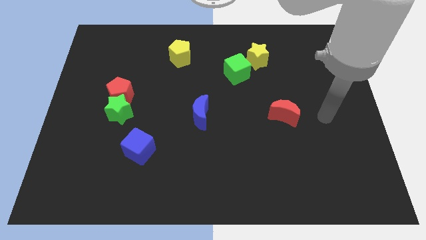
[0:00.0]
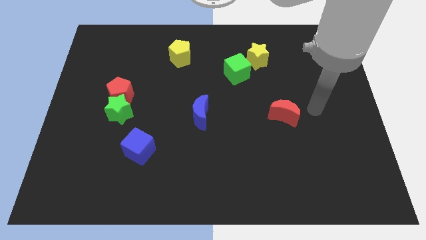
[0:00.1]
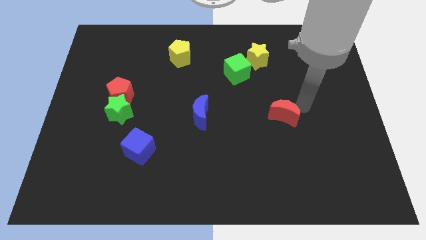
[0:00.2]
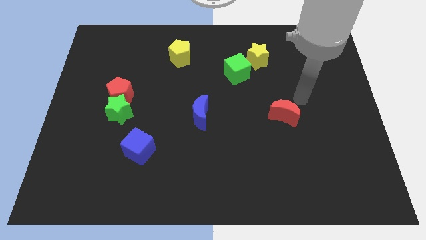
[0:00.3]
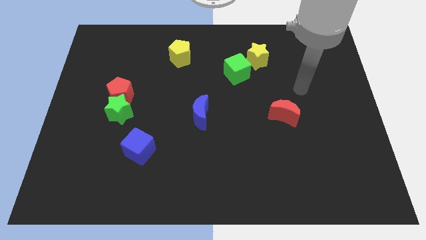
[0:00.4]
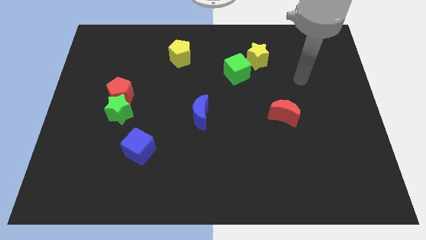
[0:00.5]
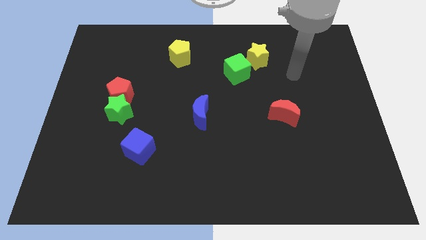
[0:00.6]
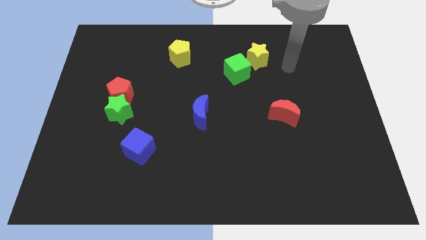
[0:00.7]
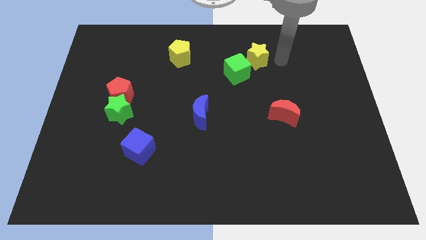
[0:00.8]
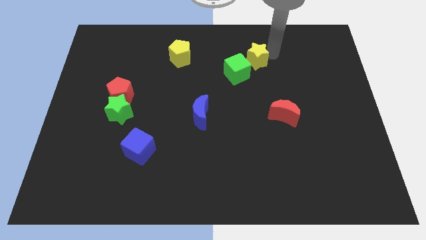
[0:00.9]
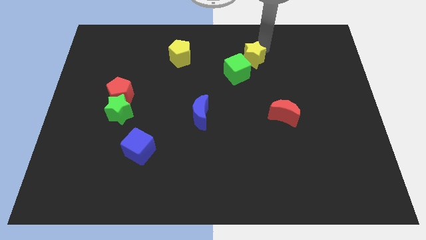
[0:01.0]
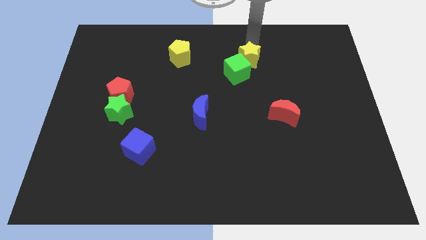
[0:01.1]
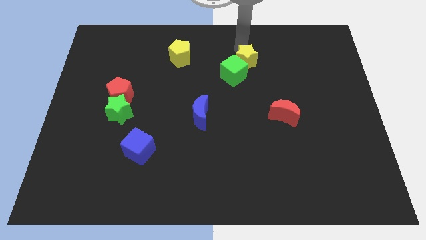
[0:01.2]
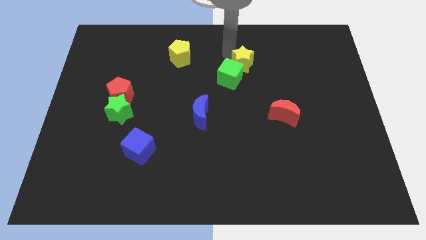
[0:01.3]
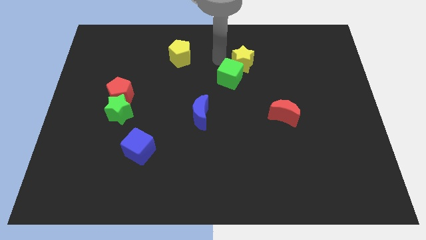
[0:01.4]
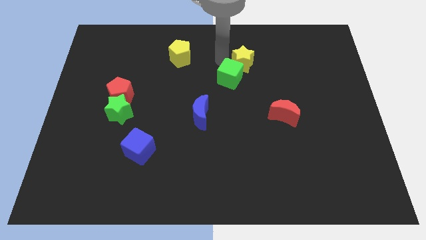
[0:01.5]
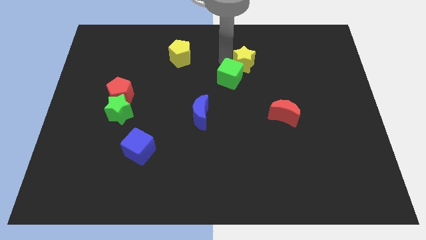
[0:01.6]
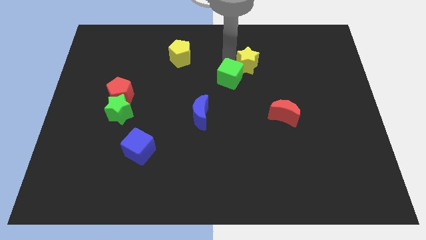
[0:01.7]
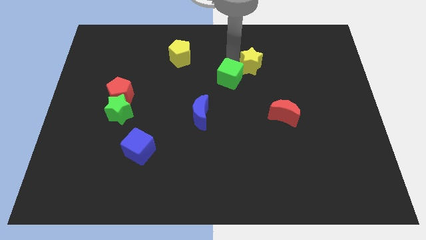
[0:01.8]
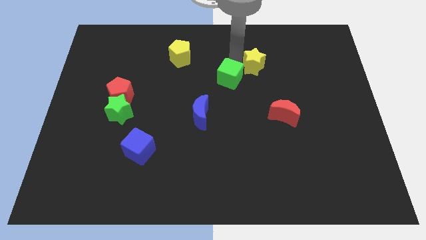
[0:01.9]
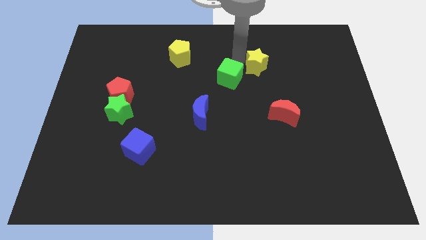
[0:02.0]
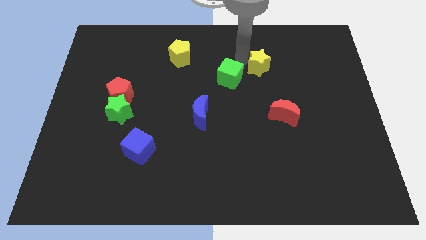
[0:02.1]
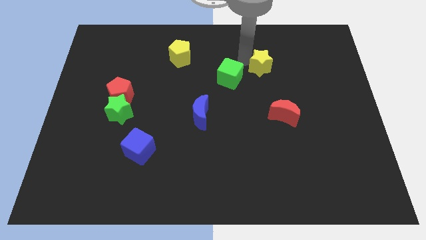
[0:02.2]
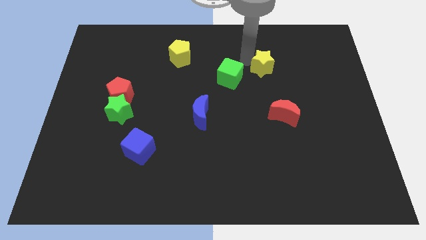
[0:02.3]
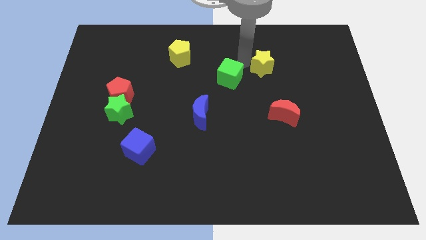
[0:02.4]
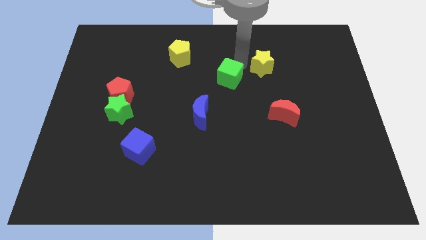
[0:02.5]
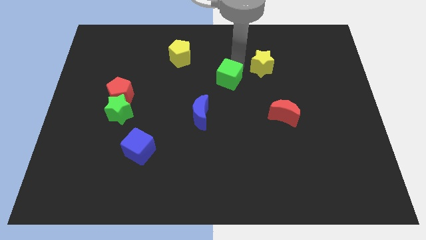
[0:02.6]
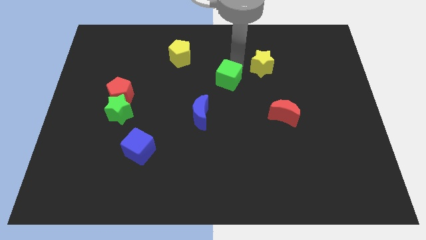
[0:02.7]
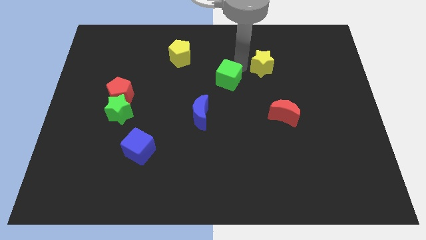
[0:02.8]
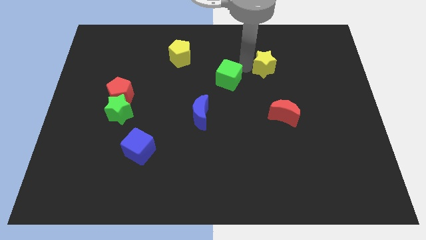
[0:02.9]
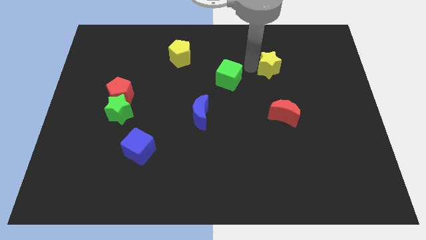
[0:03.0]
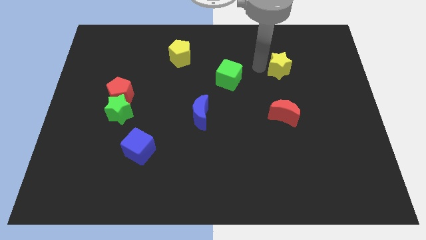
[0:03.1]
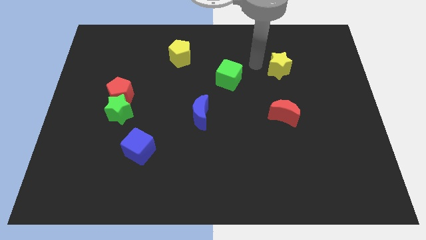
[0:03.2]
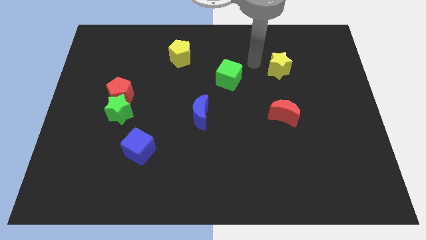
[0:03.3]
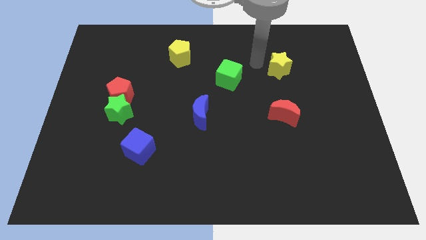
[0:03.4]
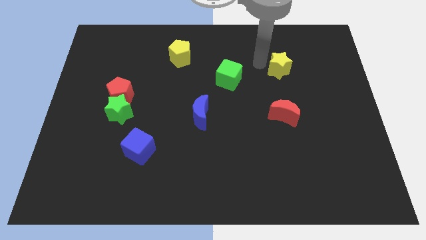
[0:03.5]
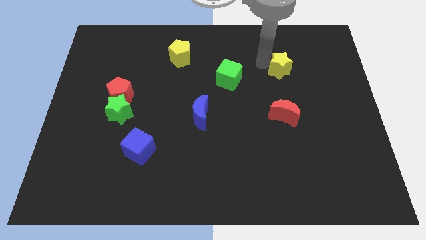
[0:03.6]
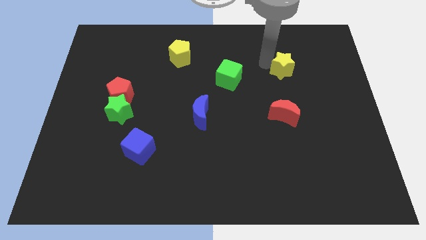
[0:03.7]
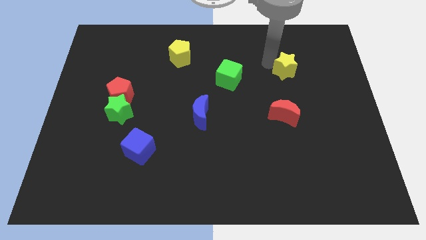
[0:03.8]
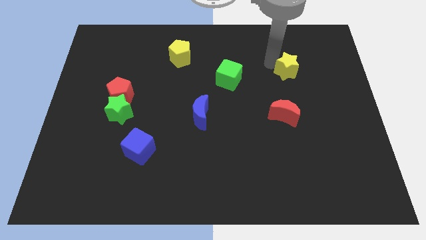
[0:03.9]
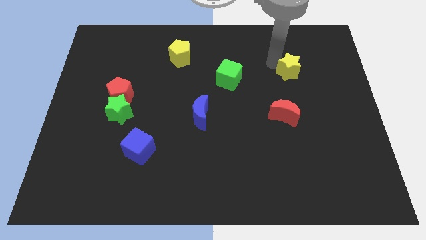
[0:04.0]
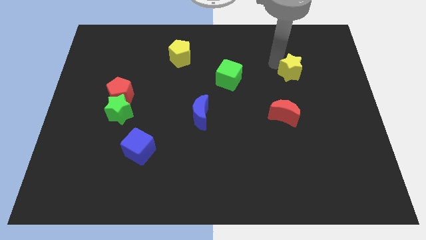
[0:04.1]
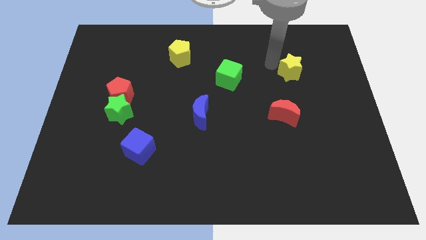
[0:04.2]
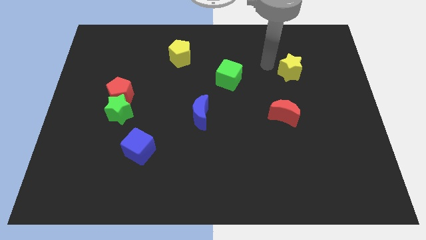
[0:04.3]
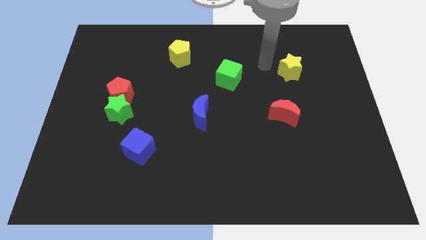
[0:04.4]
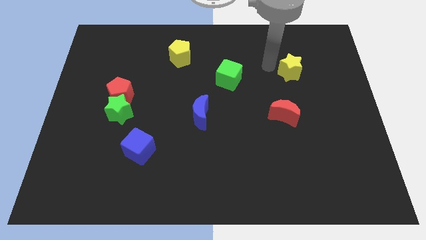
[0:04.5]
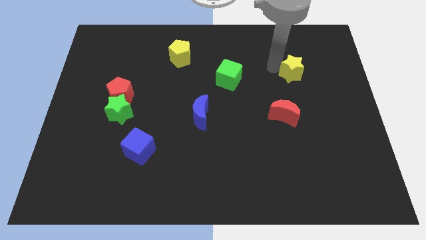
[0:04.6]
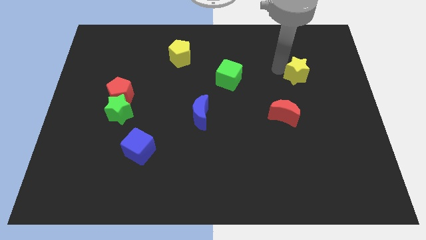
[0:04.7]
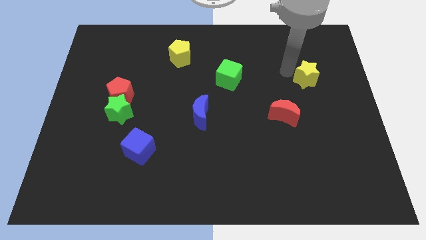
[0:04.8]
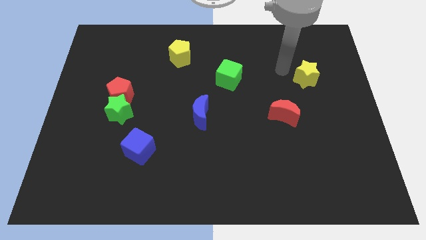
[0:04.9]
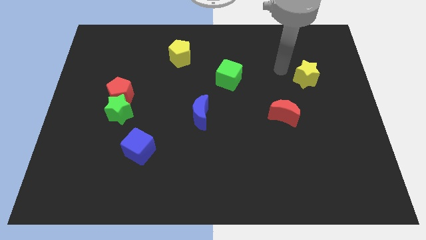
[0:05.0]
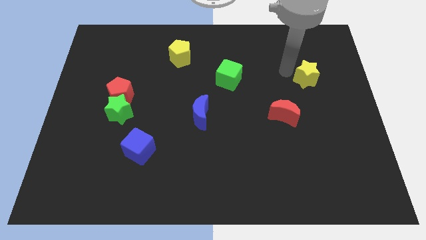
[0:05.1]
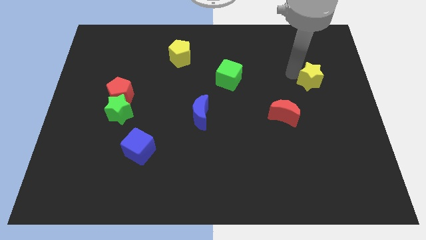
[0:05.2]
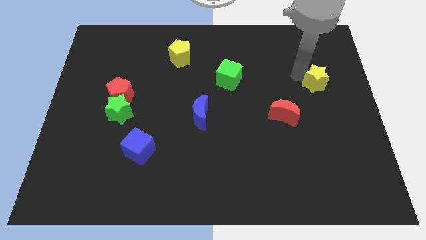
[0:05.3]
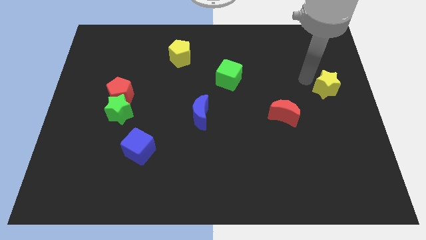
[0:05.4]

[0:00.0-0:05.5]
slide the yellow star to the center right
